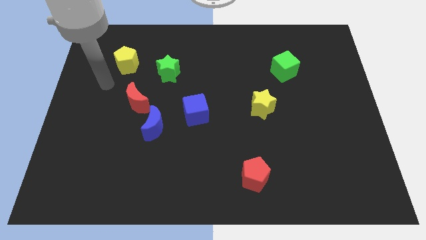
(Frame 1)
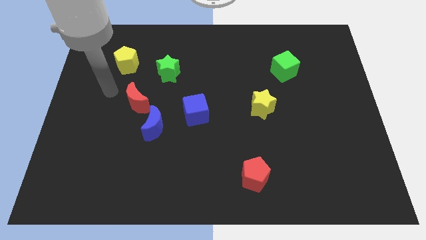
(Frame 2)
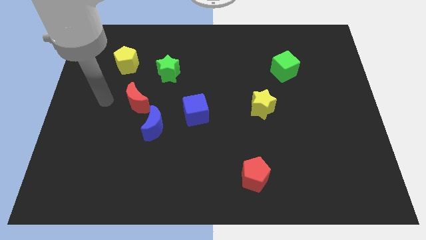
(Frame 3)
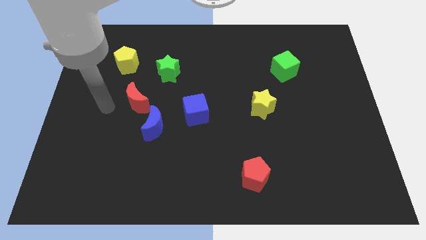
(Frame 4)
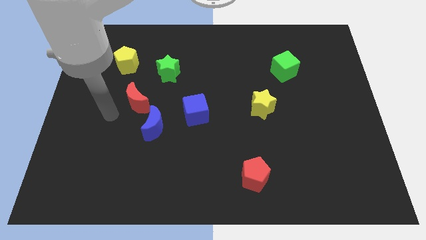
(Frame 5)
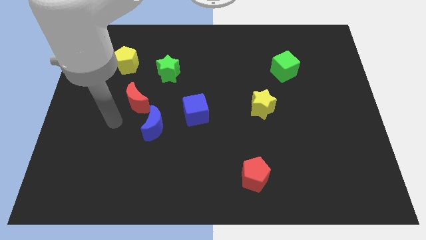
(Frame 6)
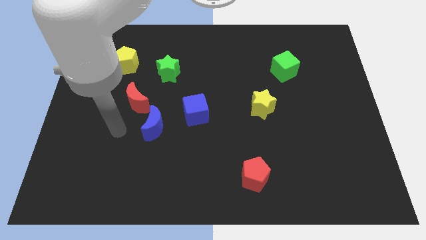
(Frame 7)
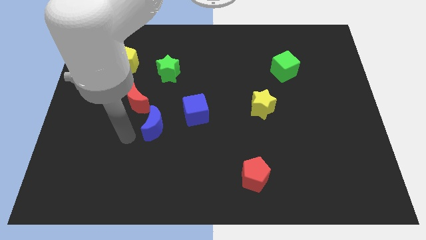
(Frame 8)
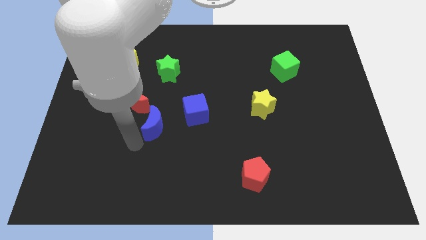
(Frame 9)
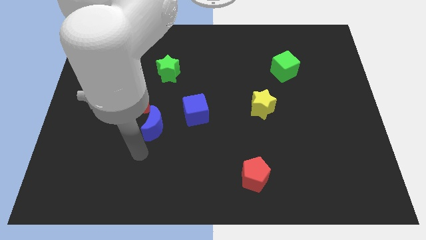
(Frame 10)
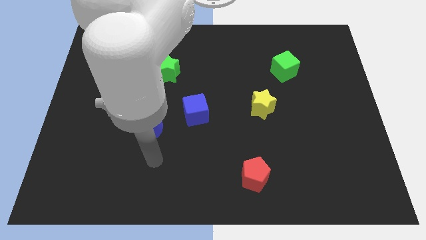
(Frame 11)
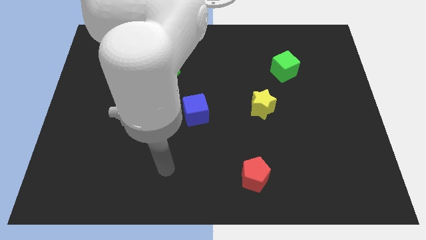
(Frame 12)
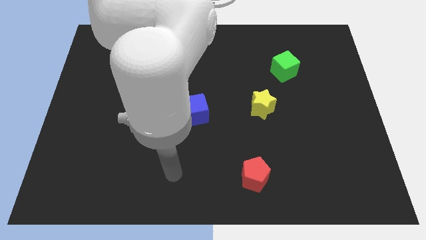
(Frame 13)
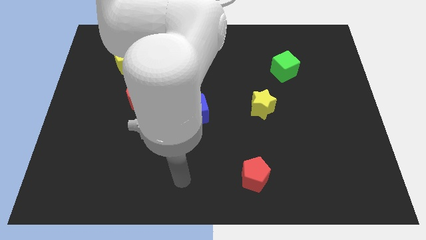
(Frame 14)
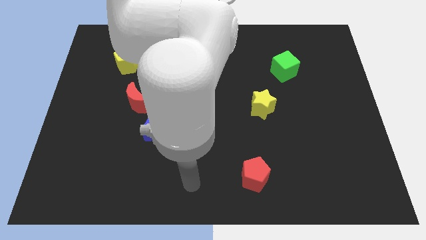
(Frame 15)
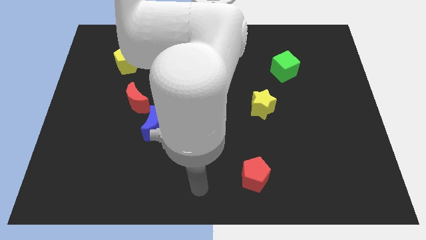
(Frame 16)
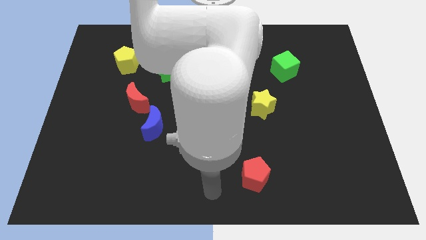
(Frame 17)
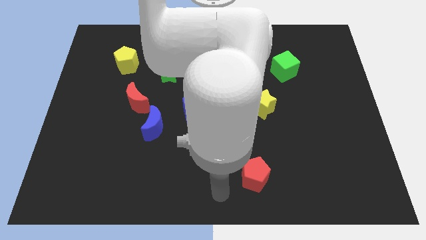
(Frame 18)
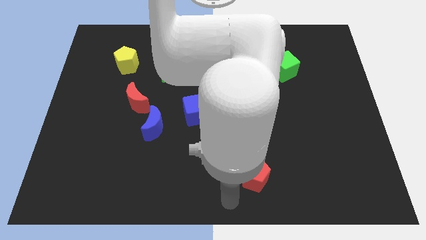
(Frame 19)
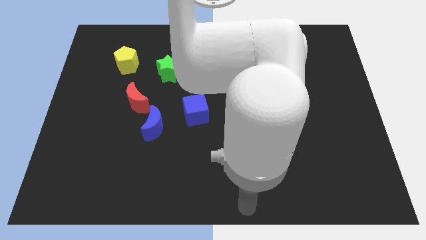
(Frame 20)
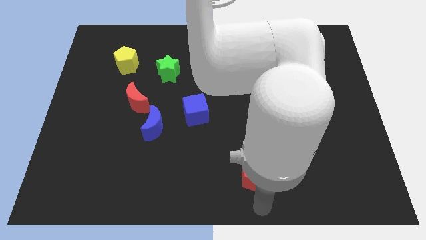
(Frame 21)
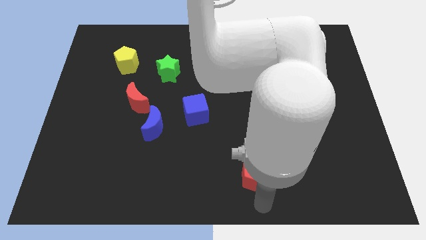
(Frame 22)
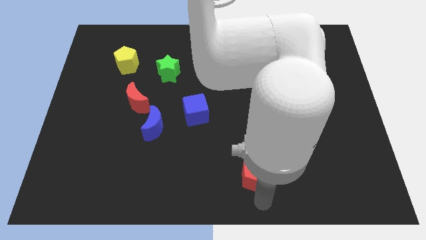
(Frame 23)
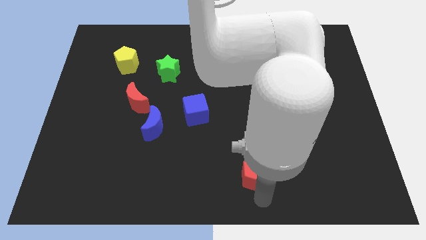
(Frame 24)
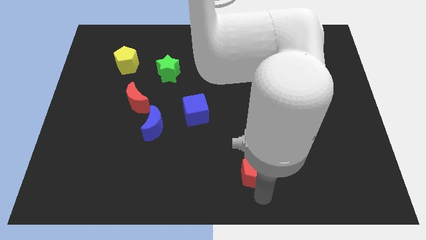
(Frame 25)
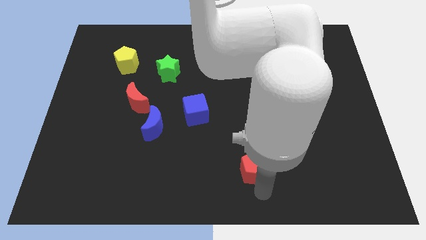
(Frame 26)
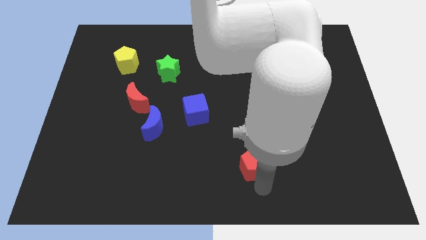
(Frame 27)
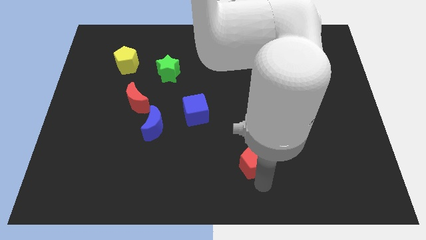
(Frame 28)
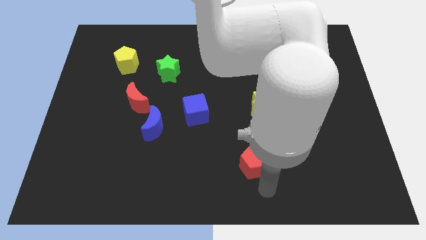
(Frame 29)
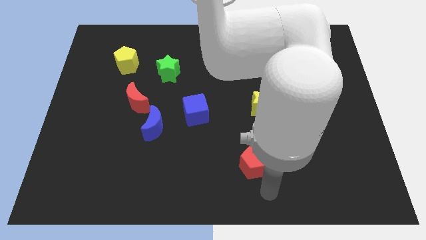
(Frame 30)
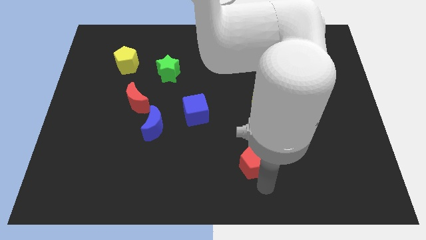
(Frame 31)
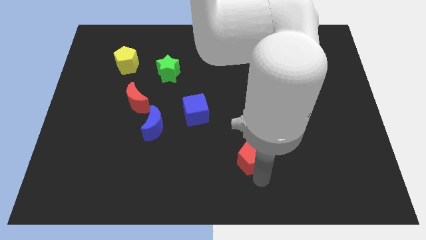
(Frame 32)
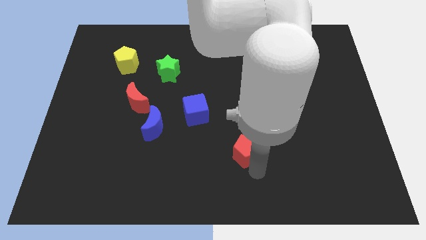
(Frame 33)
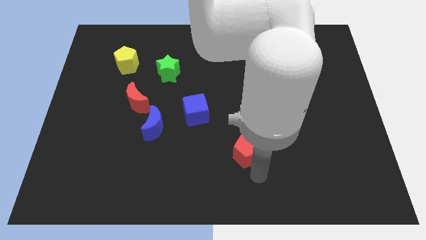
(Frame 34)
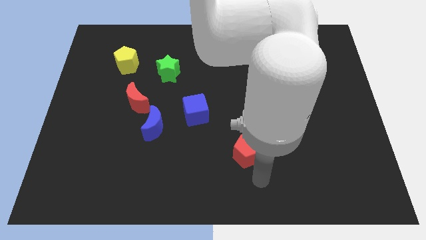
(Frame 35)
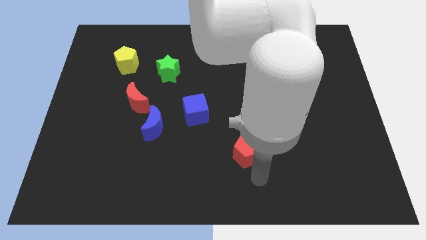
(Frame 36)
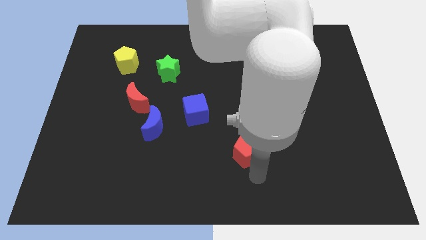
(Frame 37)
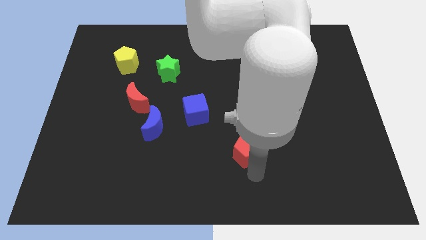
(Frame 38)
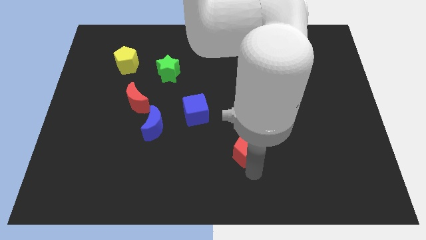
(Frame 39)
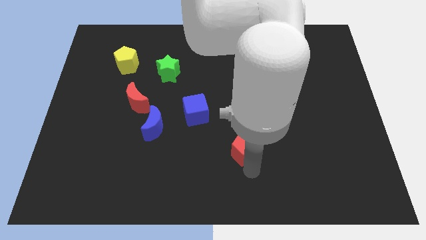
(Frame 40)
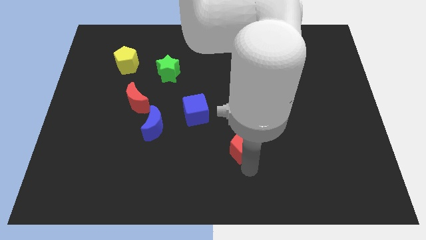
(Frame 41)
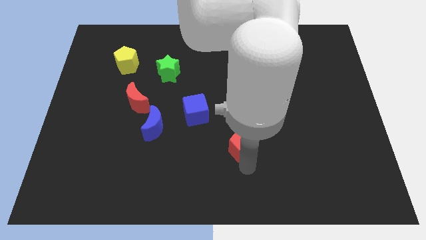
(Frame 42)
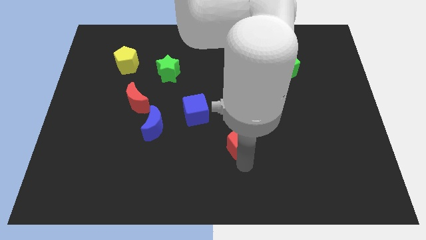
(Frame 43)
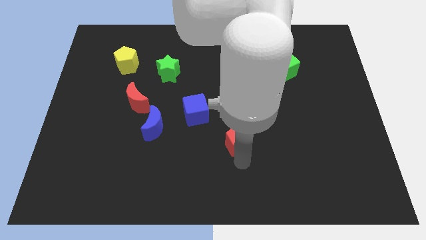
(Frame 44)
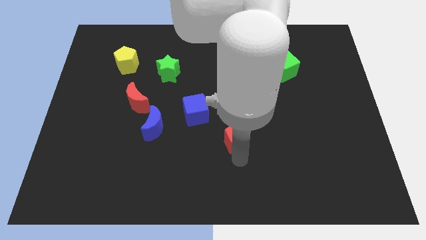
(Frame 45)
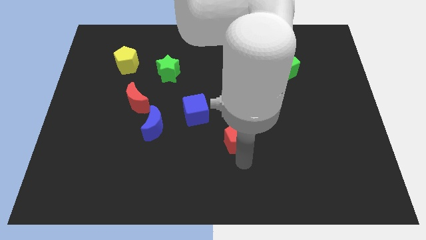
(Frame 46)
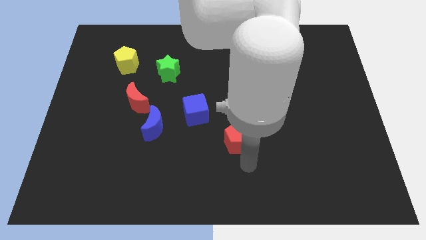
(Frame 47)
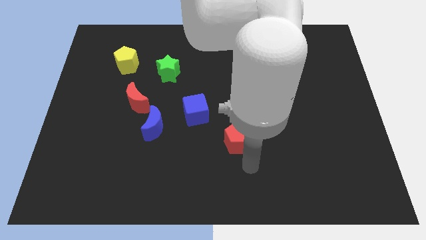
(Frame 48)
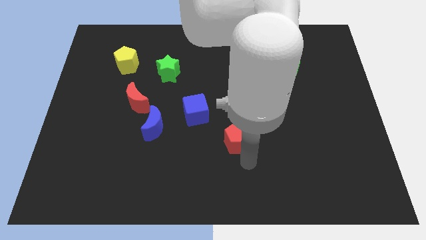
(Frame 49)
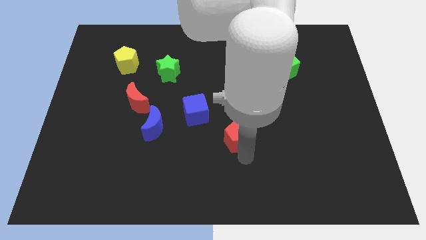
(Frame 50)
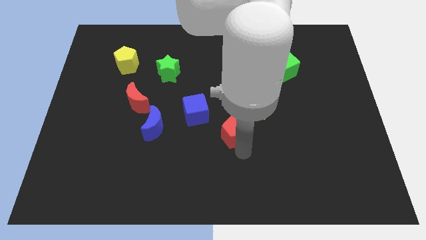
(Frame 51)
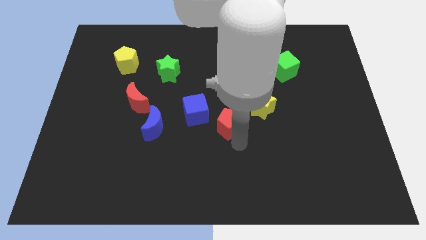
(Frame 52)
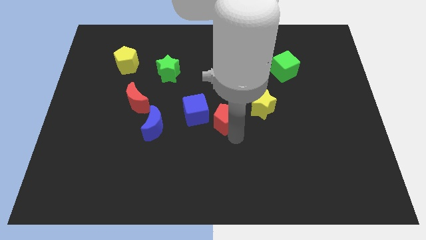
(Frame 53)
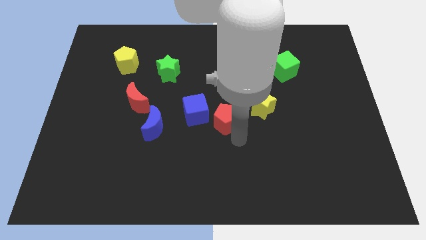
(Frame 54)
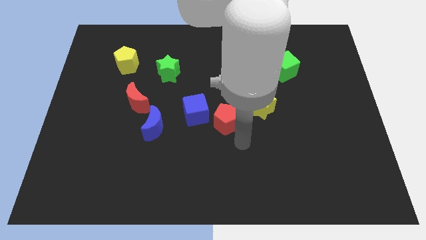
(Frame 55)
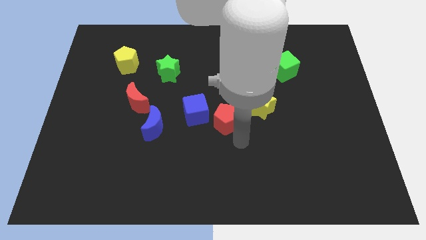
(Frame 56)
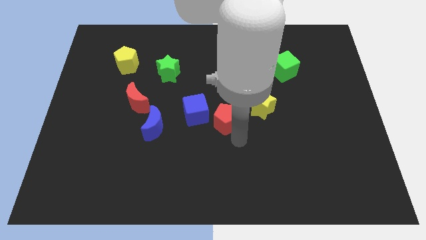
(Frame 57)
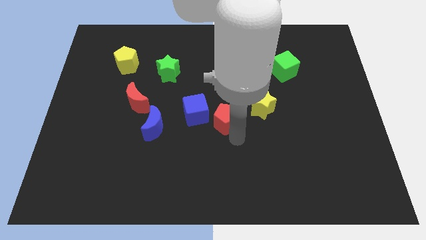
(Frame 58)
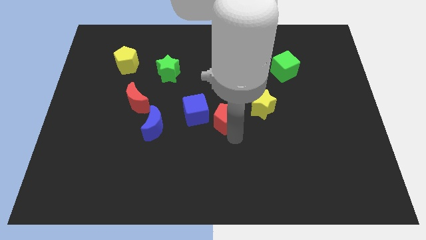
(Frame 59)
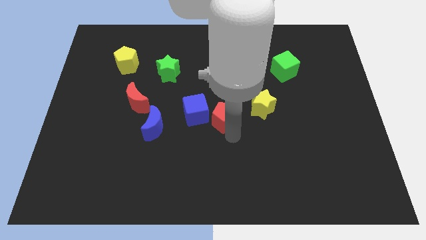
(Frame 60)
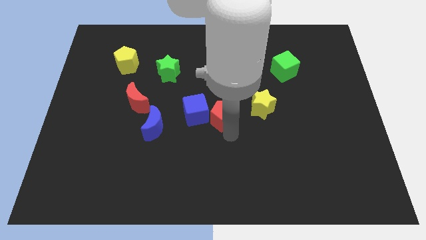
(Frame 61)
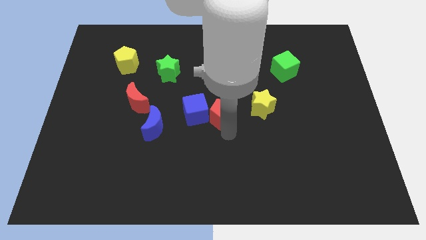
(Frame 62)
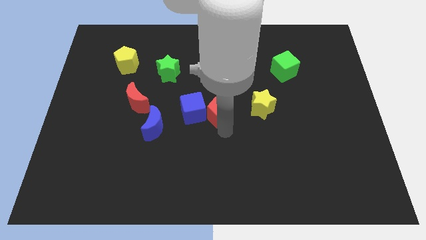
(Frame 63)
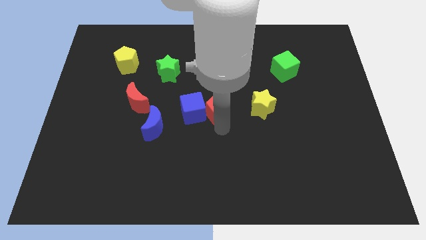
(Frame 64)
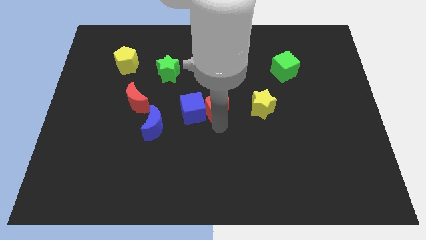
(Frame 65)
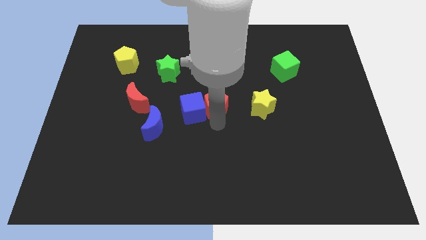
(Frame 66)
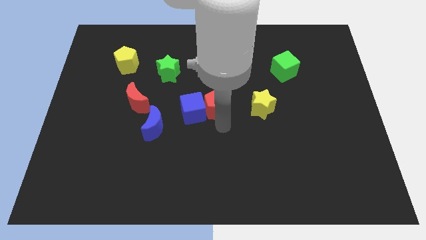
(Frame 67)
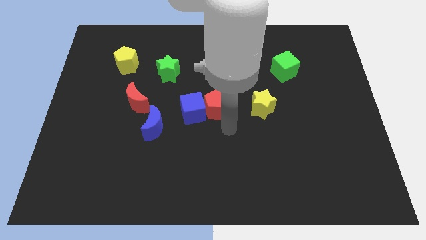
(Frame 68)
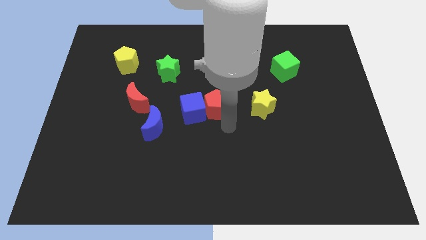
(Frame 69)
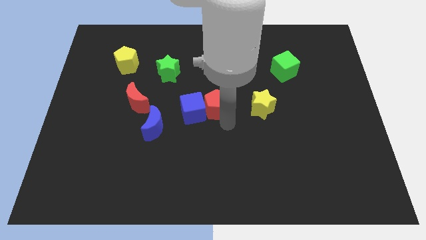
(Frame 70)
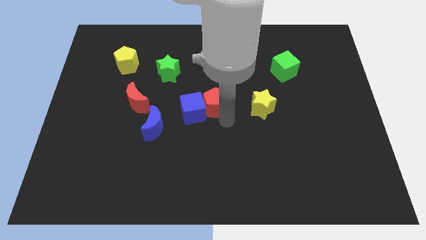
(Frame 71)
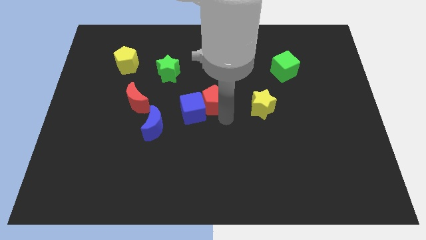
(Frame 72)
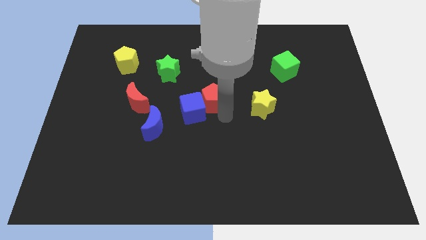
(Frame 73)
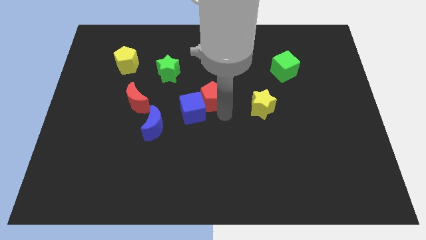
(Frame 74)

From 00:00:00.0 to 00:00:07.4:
push the red pentagon to the top of the blue cube

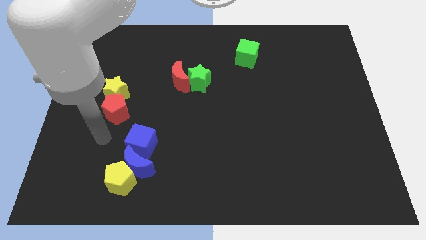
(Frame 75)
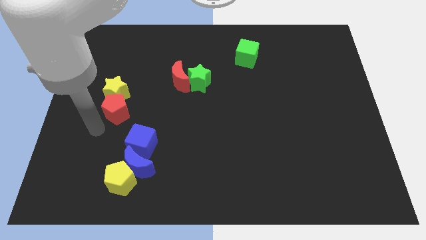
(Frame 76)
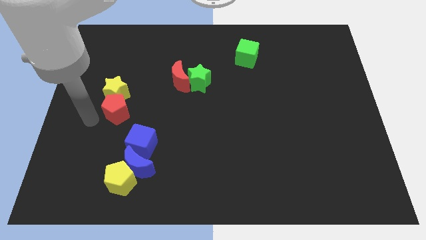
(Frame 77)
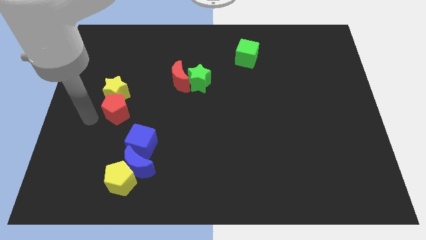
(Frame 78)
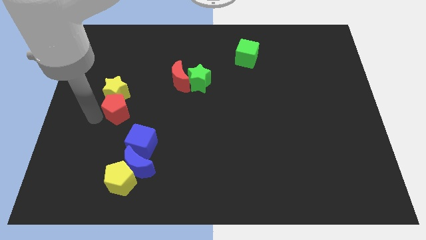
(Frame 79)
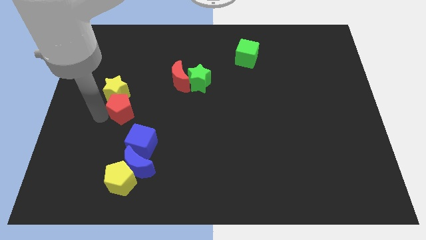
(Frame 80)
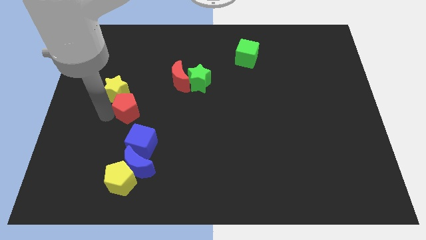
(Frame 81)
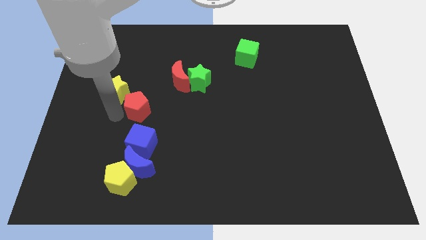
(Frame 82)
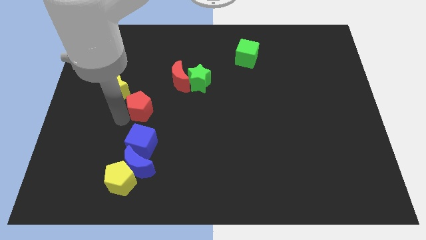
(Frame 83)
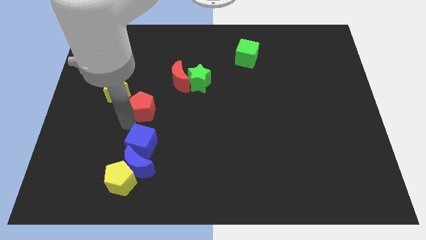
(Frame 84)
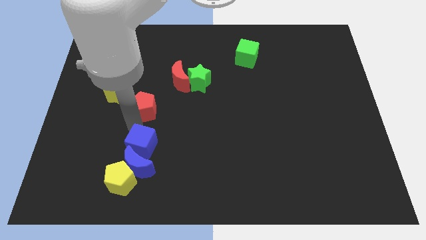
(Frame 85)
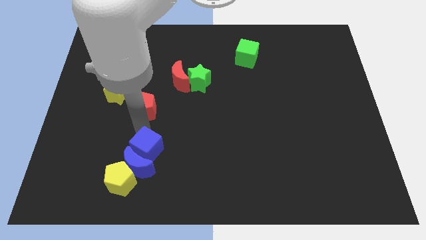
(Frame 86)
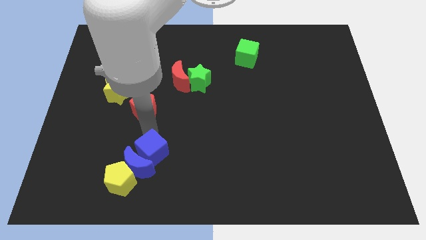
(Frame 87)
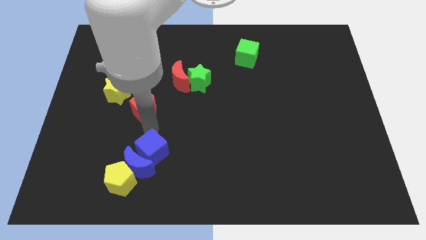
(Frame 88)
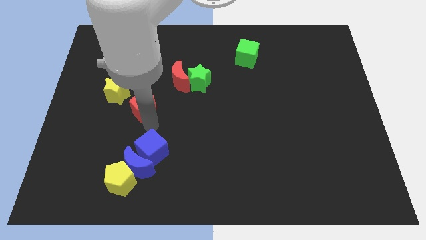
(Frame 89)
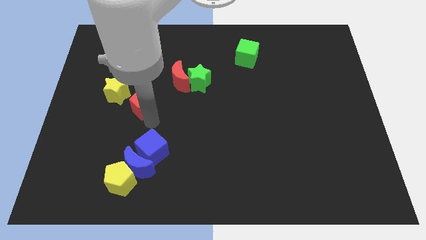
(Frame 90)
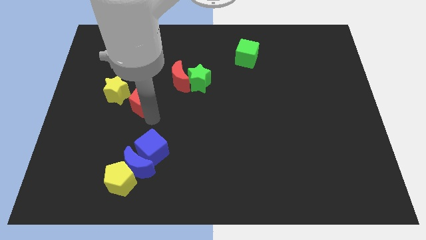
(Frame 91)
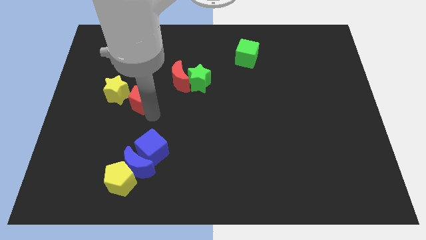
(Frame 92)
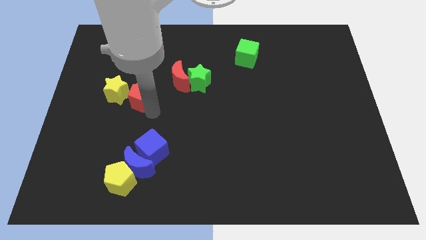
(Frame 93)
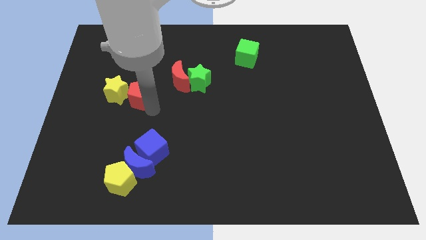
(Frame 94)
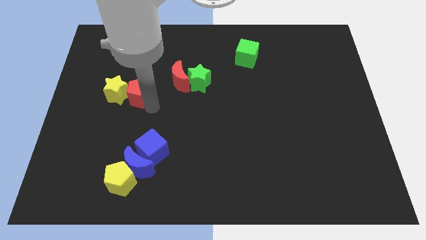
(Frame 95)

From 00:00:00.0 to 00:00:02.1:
put the red pentagon left of the red moon
